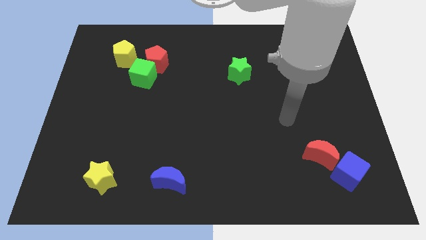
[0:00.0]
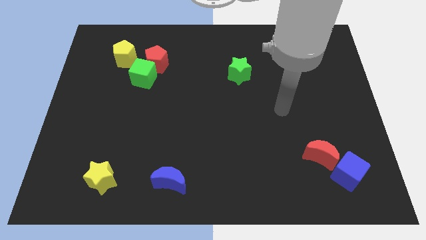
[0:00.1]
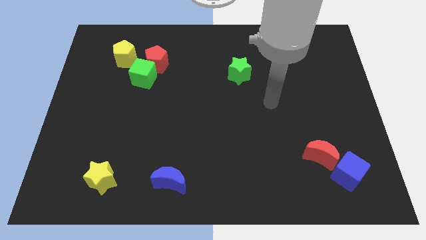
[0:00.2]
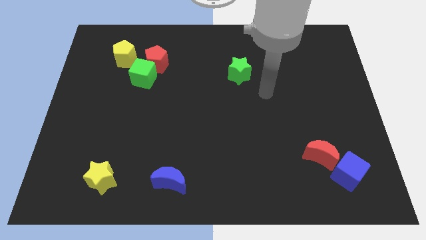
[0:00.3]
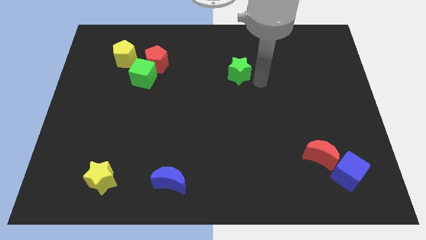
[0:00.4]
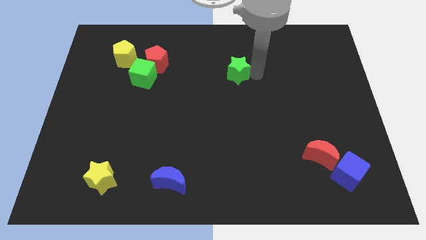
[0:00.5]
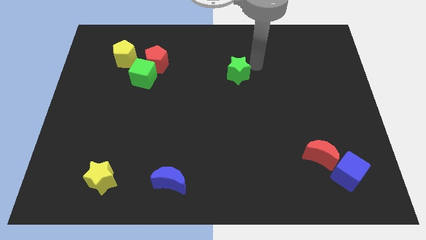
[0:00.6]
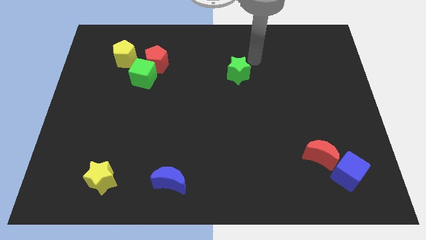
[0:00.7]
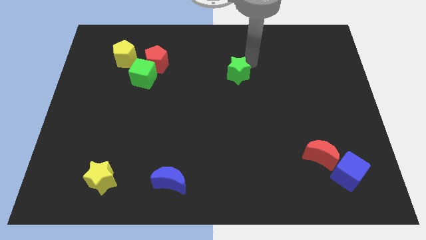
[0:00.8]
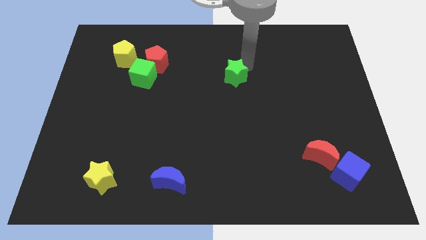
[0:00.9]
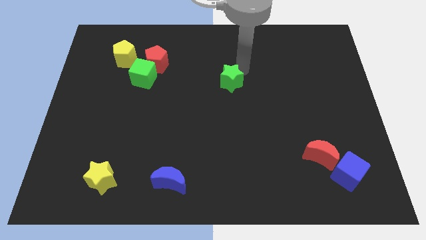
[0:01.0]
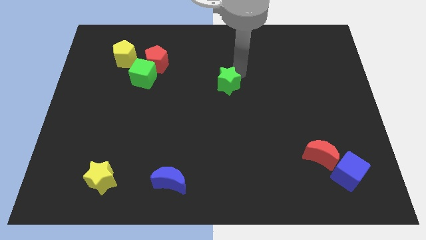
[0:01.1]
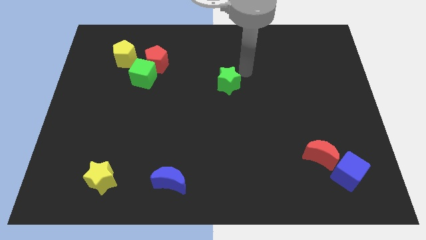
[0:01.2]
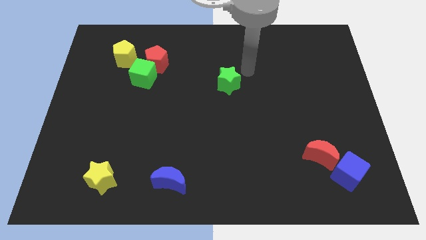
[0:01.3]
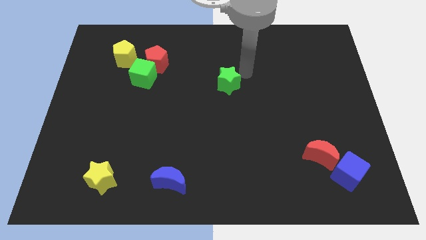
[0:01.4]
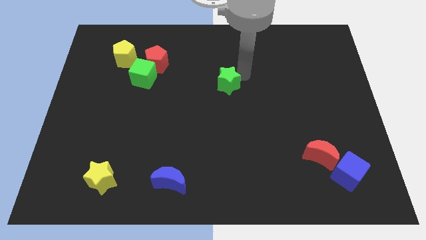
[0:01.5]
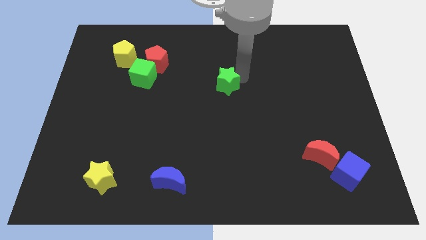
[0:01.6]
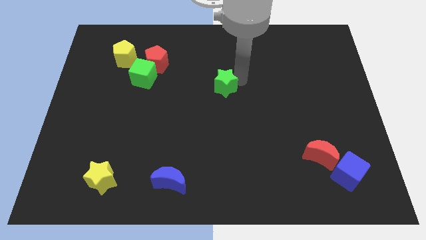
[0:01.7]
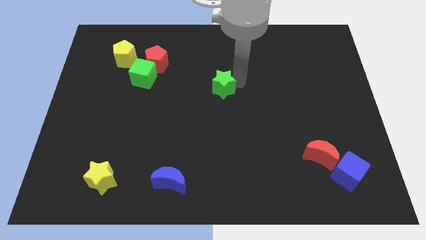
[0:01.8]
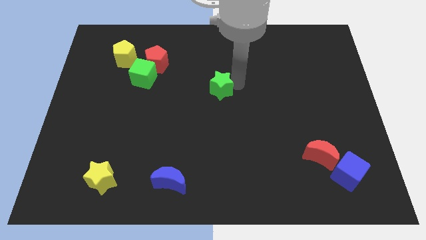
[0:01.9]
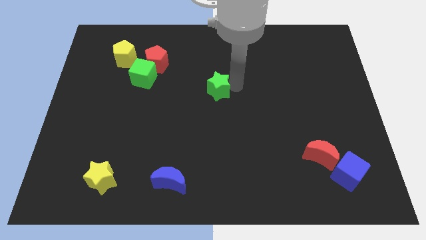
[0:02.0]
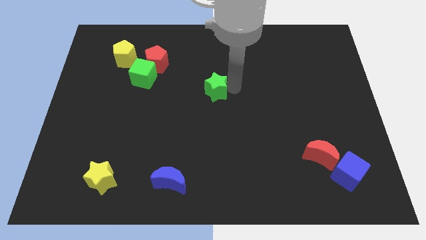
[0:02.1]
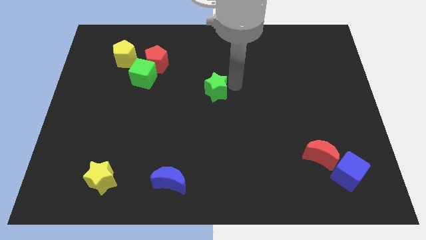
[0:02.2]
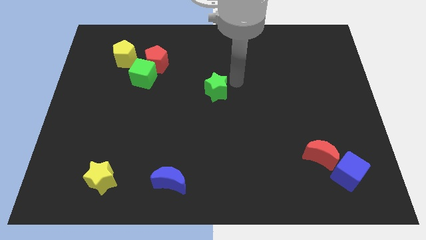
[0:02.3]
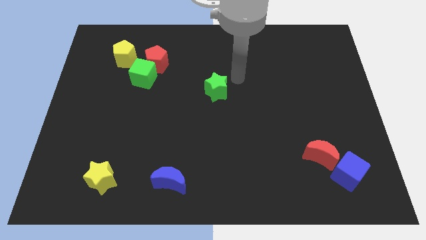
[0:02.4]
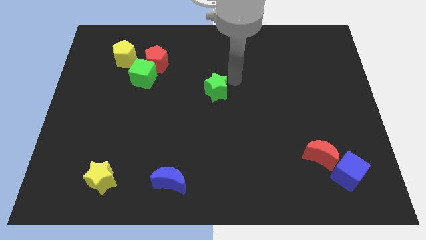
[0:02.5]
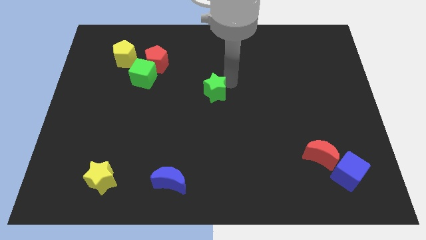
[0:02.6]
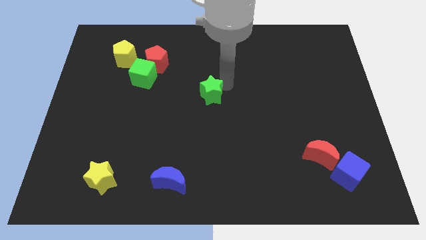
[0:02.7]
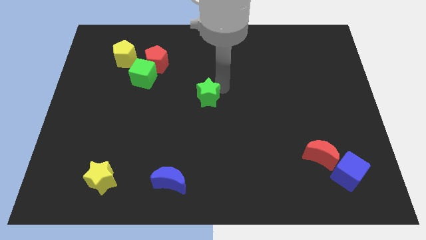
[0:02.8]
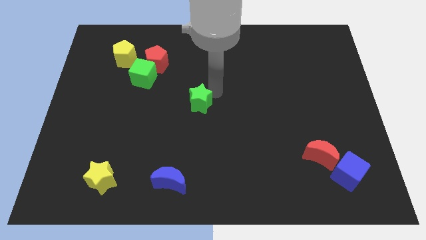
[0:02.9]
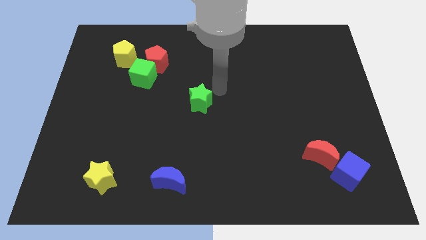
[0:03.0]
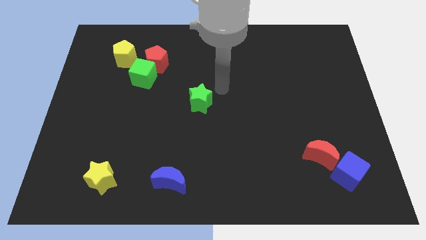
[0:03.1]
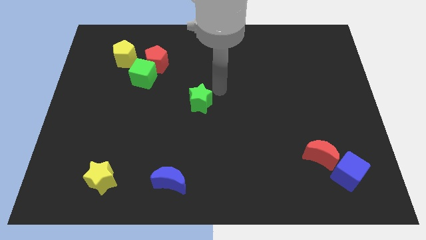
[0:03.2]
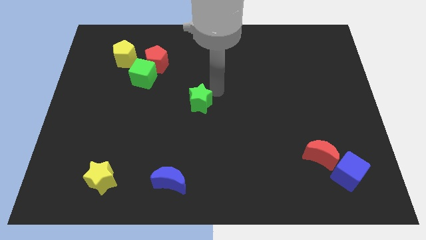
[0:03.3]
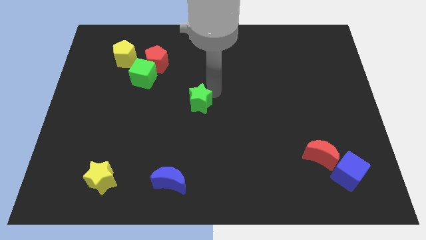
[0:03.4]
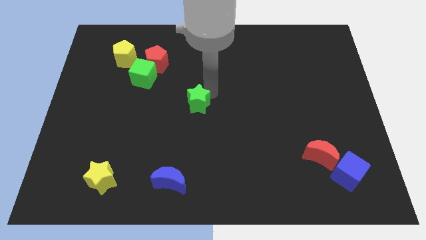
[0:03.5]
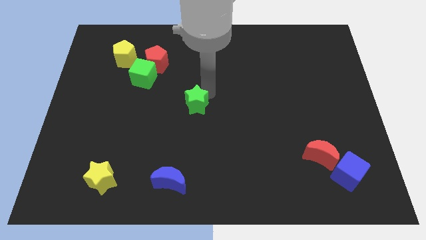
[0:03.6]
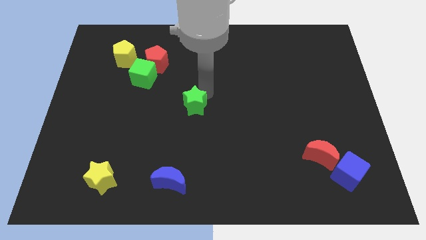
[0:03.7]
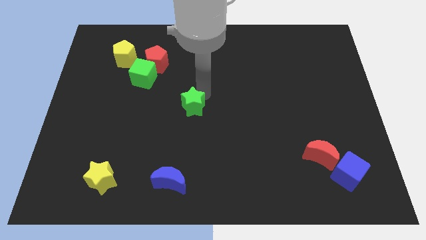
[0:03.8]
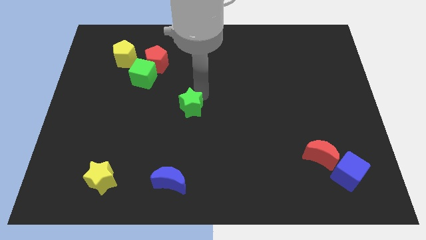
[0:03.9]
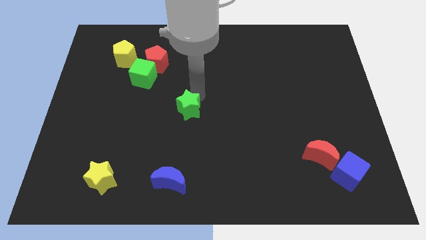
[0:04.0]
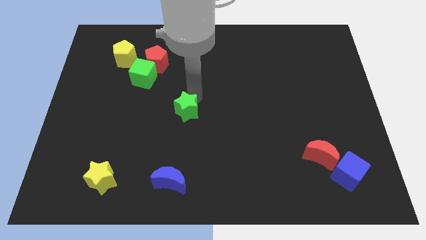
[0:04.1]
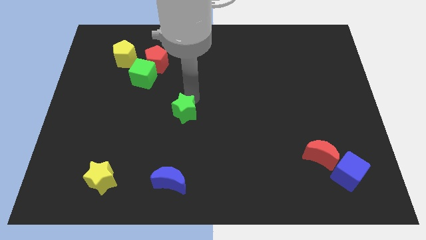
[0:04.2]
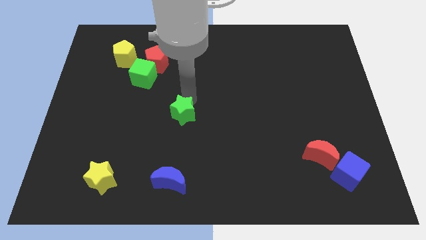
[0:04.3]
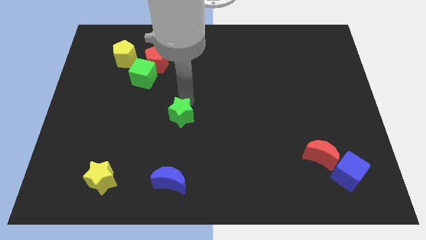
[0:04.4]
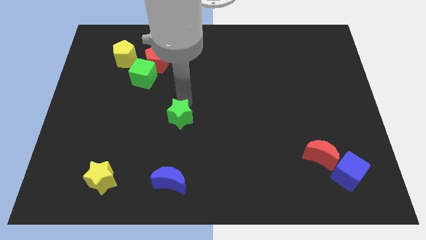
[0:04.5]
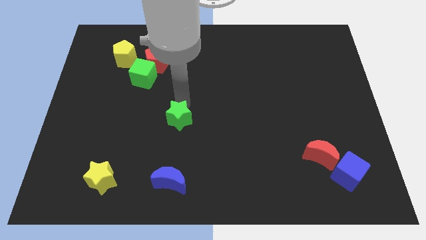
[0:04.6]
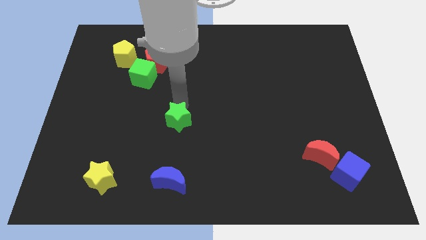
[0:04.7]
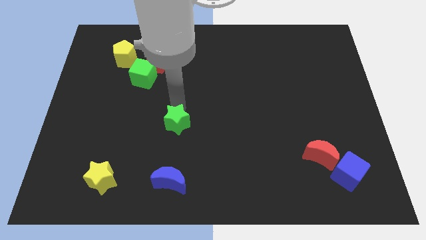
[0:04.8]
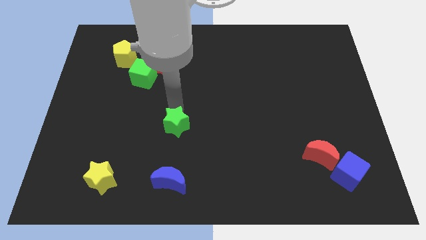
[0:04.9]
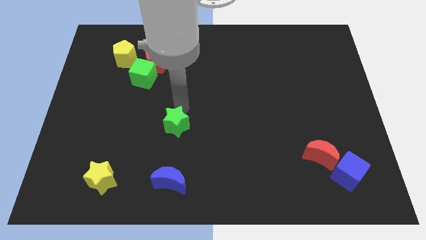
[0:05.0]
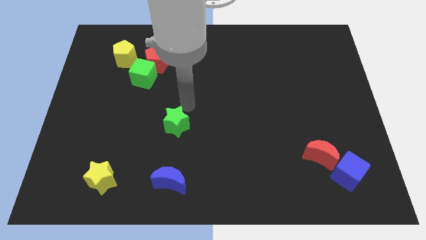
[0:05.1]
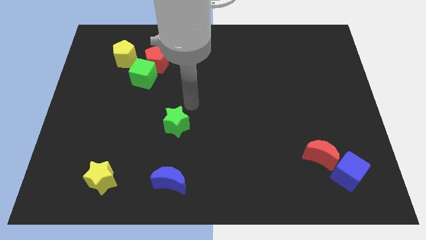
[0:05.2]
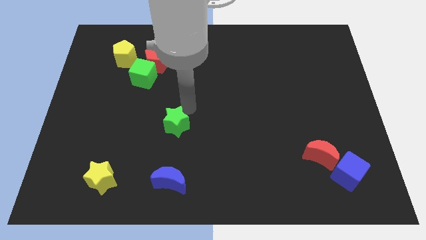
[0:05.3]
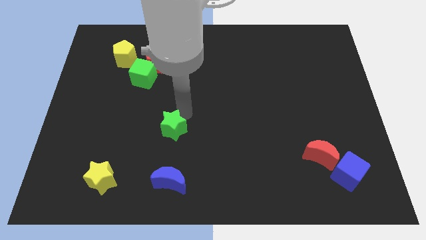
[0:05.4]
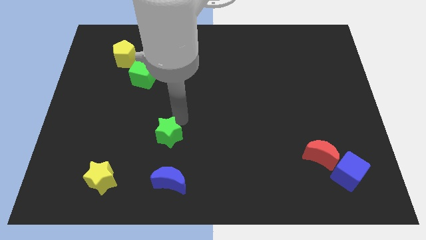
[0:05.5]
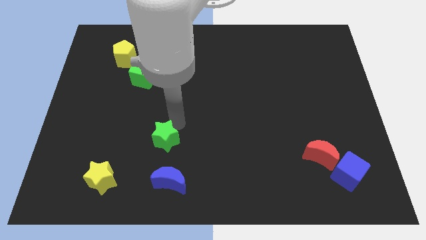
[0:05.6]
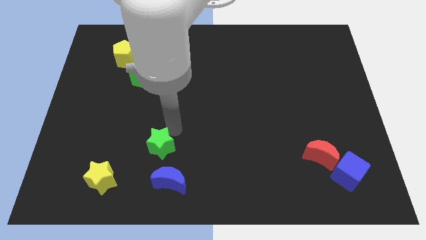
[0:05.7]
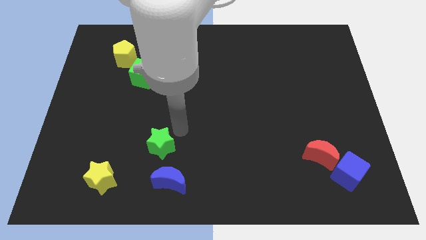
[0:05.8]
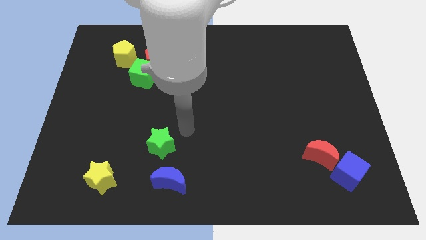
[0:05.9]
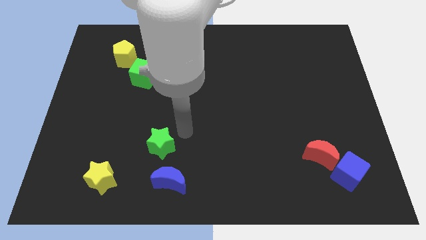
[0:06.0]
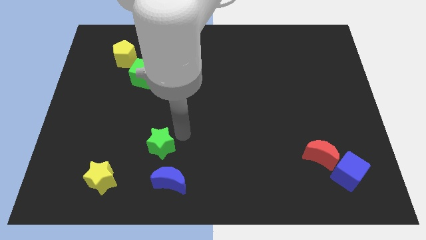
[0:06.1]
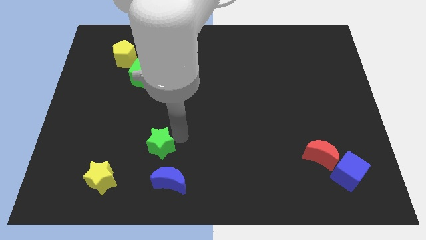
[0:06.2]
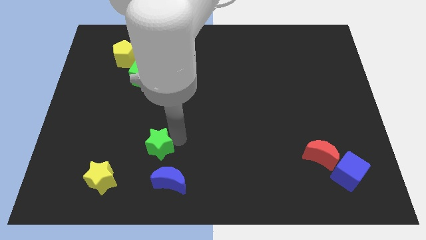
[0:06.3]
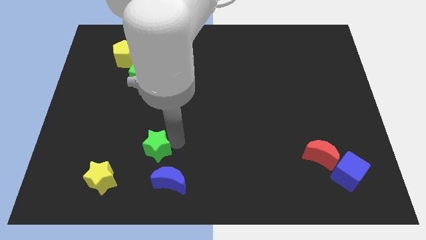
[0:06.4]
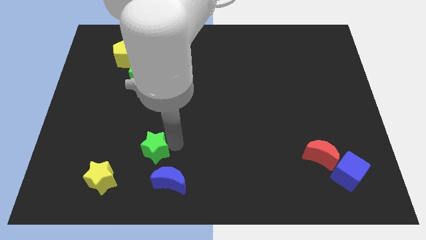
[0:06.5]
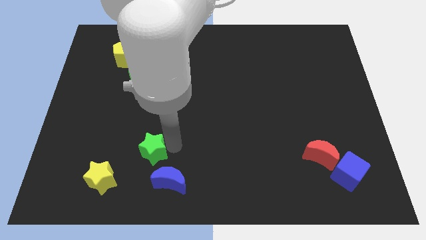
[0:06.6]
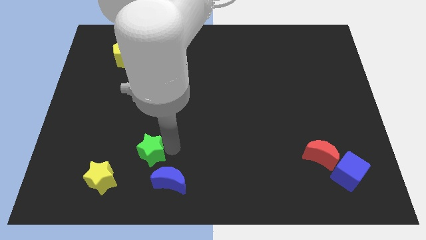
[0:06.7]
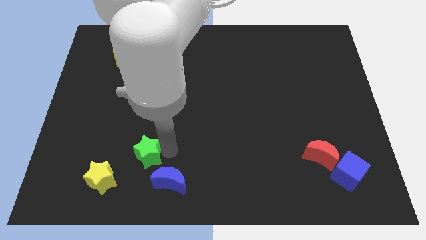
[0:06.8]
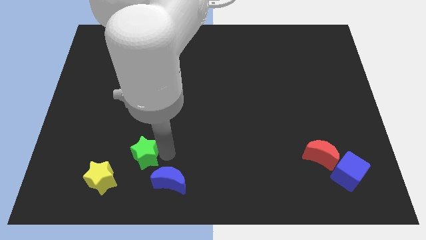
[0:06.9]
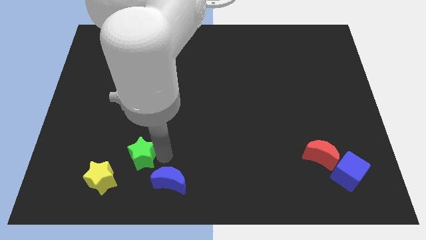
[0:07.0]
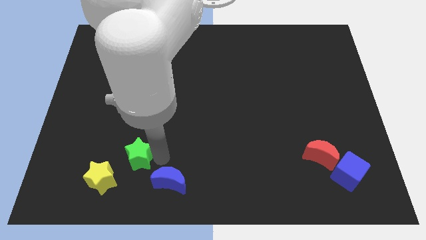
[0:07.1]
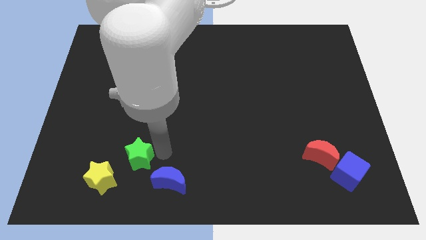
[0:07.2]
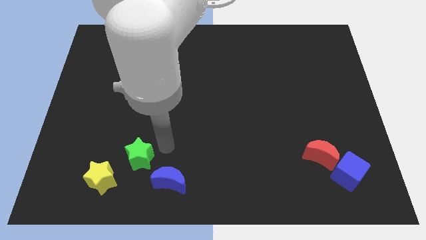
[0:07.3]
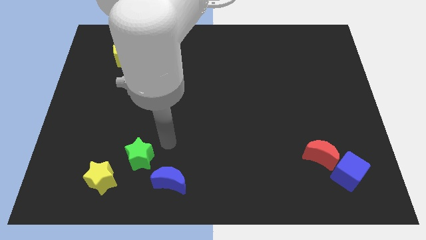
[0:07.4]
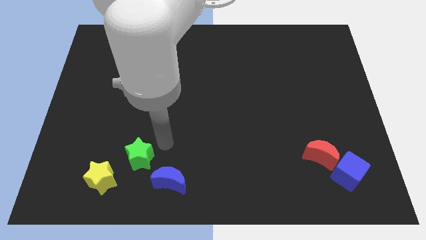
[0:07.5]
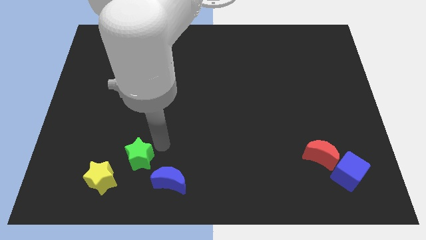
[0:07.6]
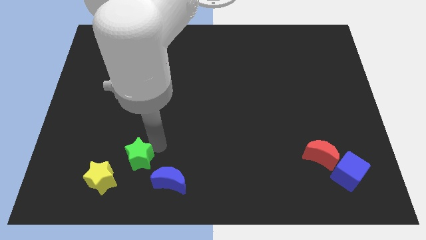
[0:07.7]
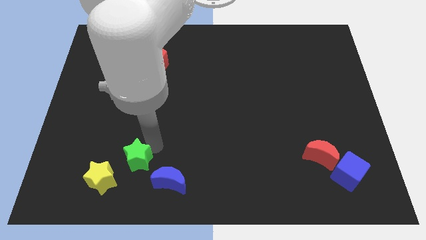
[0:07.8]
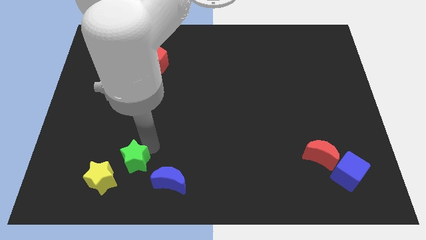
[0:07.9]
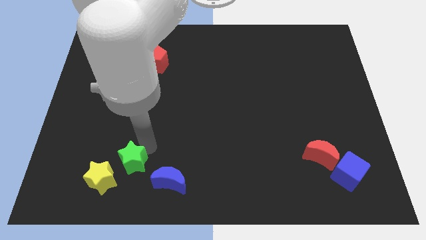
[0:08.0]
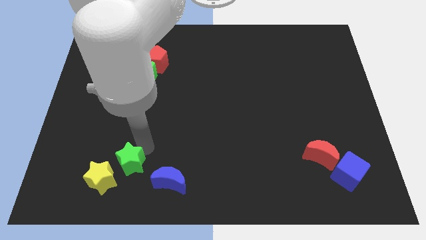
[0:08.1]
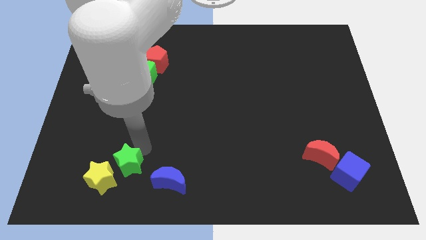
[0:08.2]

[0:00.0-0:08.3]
push the green star to the yellow star
